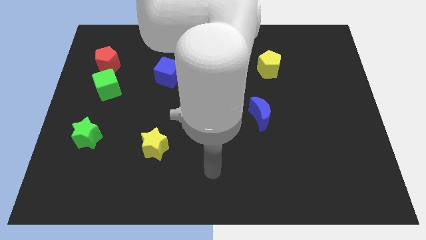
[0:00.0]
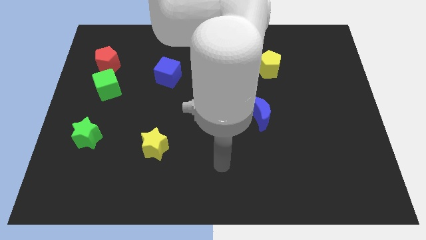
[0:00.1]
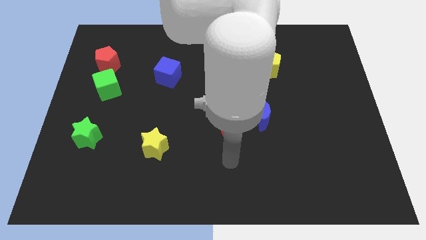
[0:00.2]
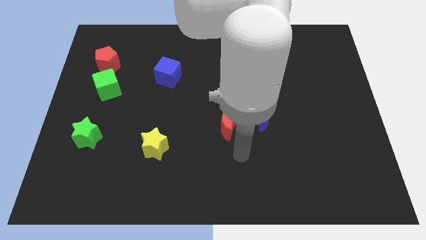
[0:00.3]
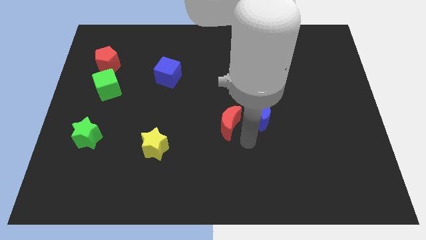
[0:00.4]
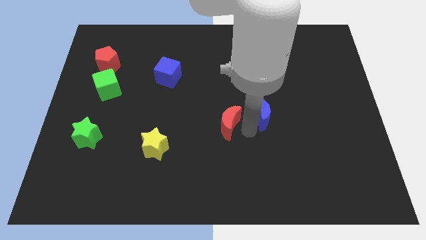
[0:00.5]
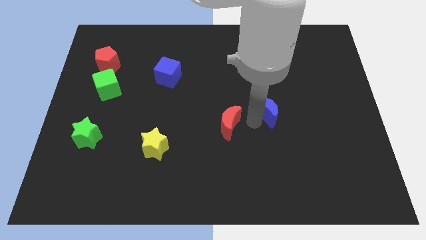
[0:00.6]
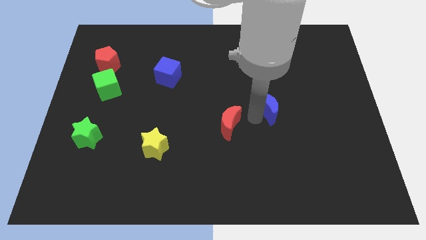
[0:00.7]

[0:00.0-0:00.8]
pull the red moon apart from the blue moon

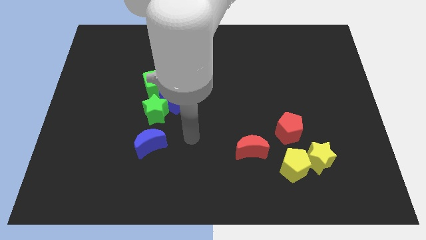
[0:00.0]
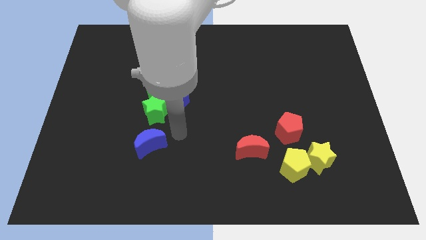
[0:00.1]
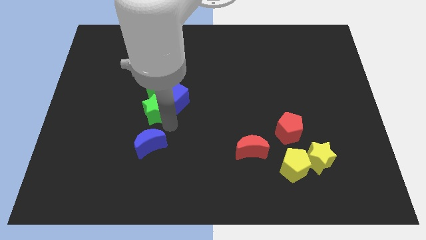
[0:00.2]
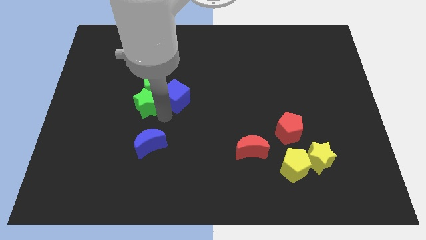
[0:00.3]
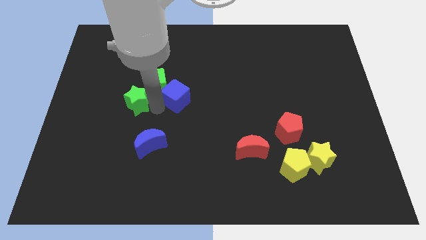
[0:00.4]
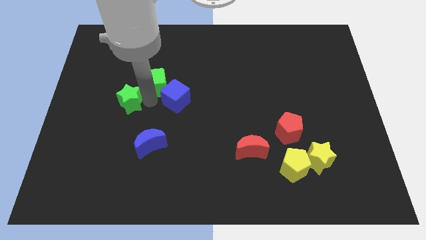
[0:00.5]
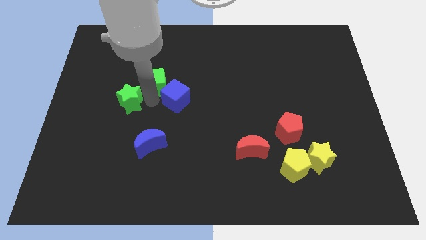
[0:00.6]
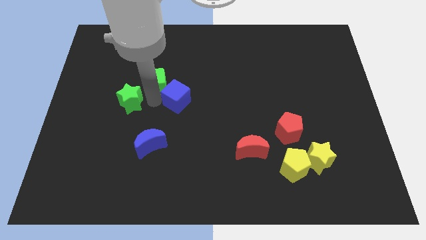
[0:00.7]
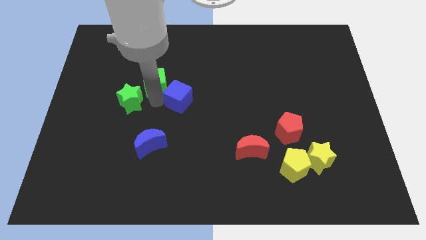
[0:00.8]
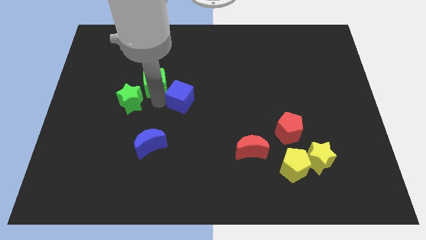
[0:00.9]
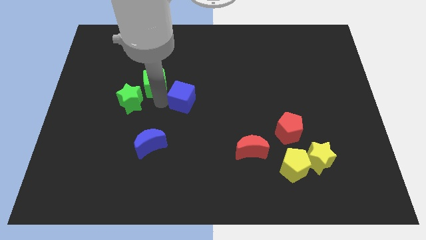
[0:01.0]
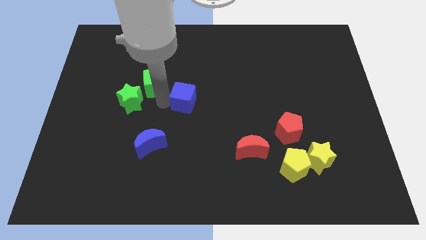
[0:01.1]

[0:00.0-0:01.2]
pull the blue cube apart from the green star and green cube

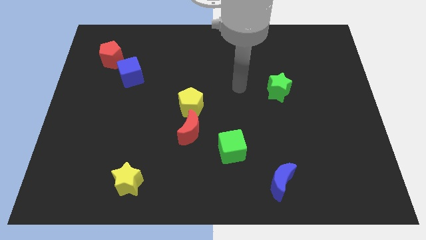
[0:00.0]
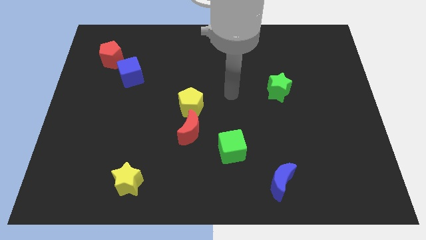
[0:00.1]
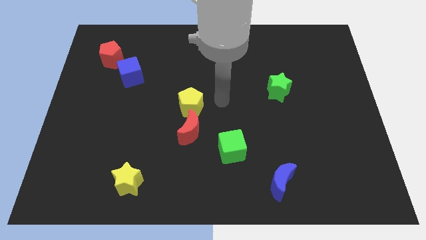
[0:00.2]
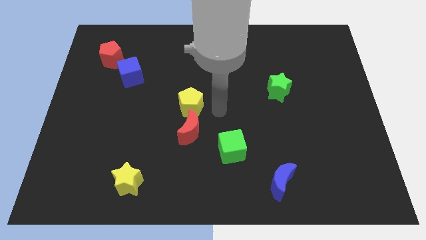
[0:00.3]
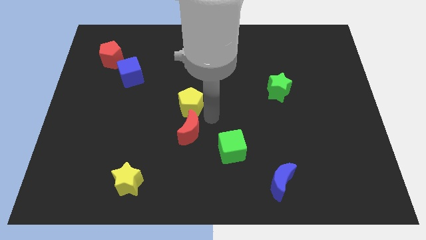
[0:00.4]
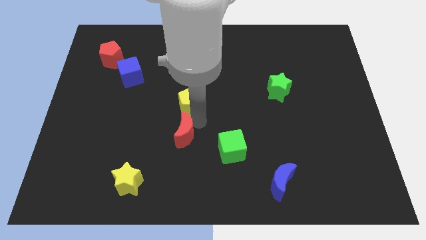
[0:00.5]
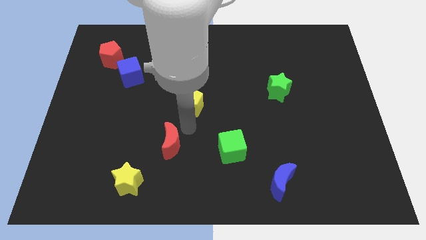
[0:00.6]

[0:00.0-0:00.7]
separate the yellow pentagon from the red moon

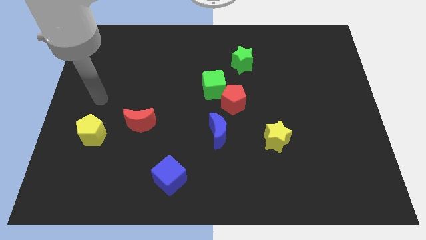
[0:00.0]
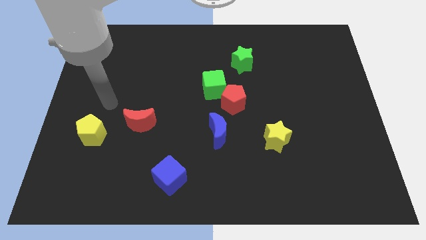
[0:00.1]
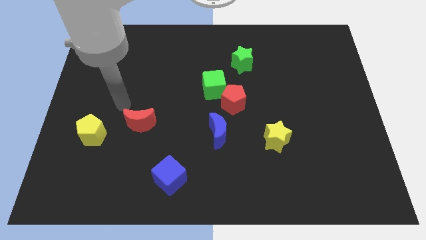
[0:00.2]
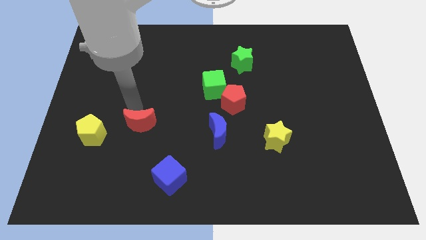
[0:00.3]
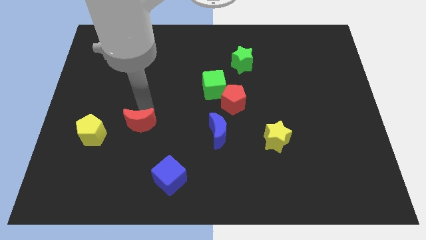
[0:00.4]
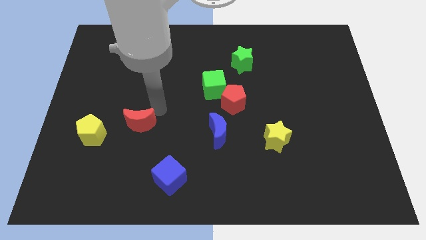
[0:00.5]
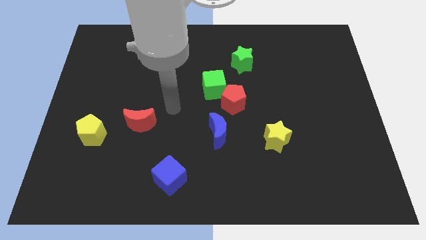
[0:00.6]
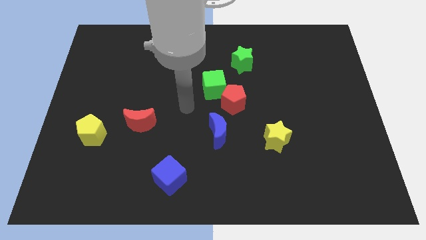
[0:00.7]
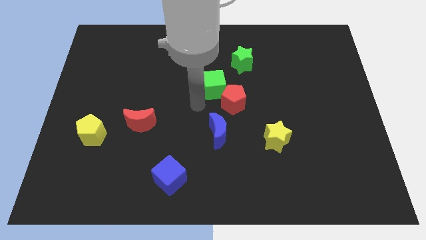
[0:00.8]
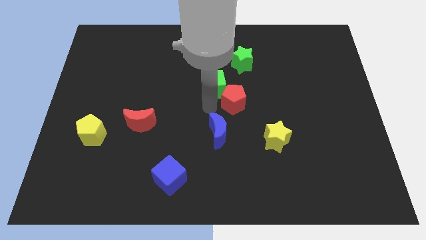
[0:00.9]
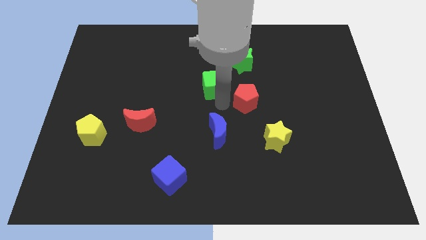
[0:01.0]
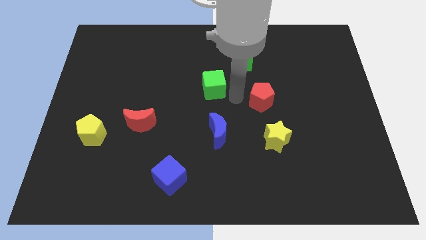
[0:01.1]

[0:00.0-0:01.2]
separate the green cube from the red pentagon

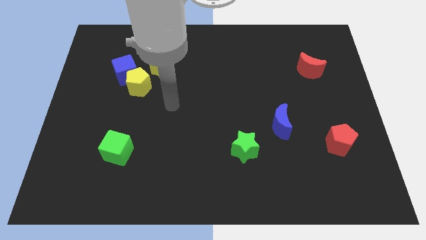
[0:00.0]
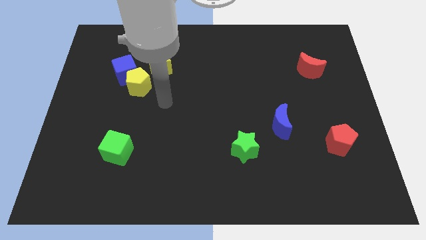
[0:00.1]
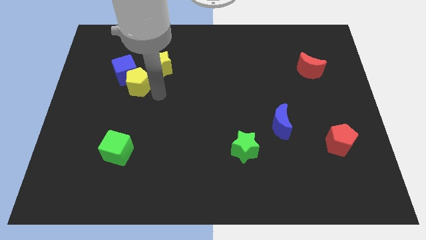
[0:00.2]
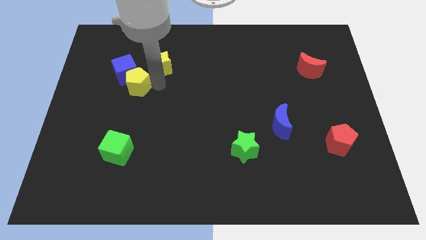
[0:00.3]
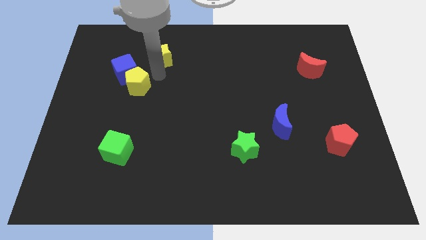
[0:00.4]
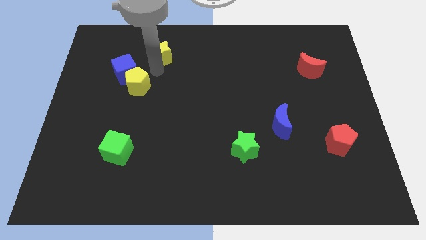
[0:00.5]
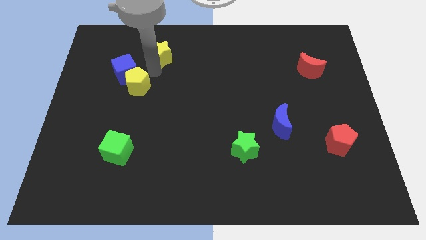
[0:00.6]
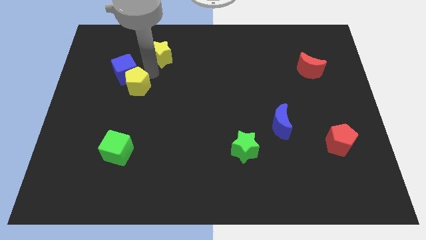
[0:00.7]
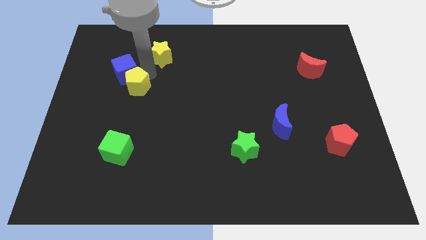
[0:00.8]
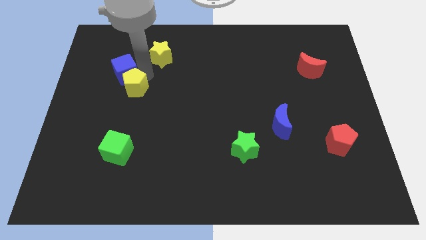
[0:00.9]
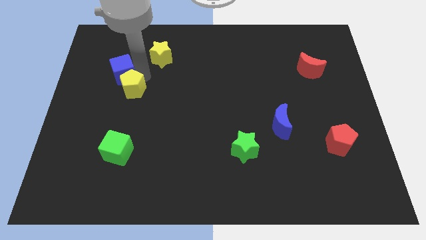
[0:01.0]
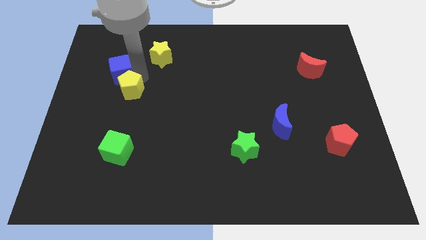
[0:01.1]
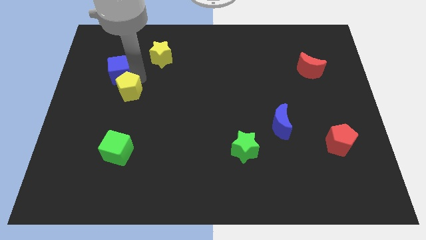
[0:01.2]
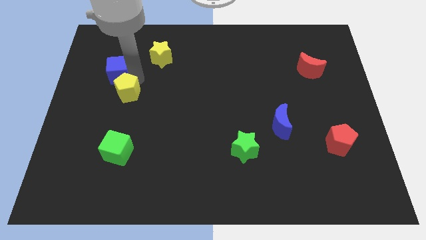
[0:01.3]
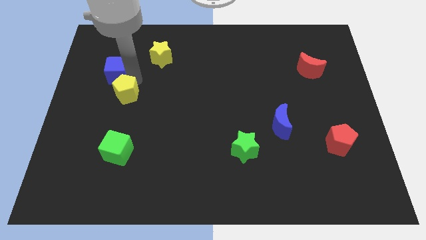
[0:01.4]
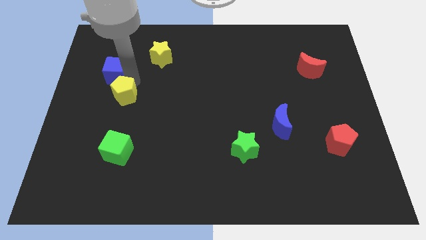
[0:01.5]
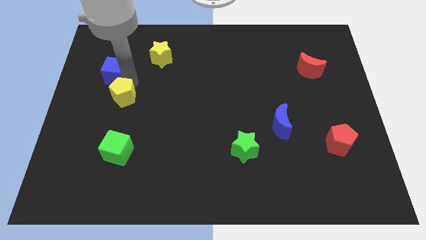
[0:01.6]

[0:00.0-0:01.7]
separate the yellow pentagon from the blue cube and yellow star

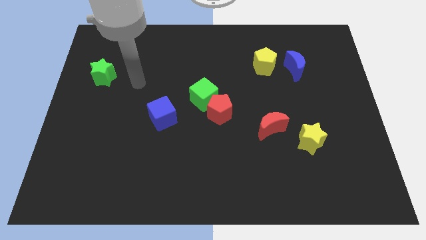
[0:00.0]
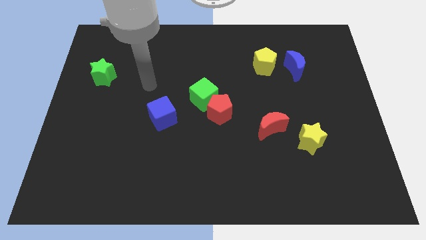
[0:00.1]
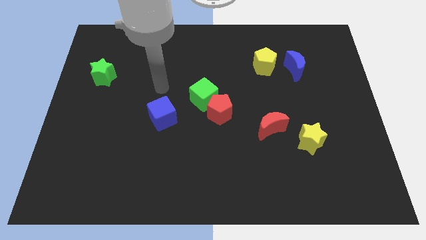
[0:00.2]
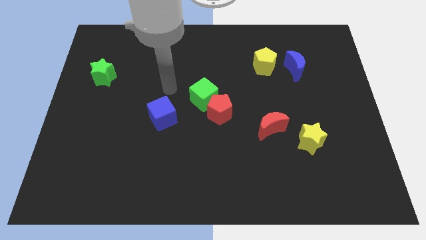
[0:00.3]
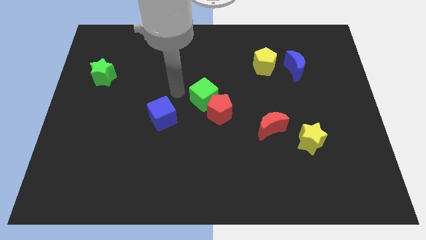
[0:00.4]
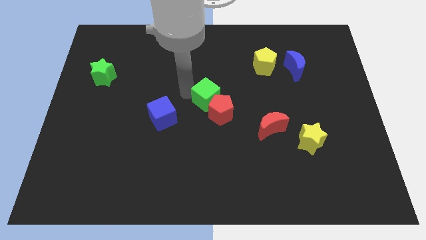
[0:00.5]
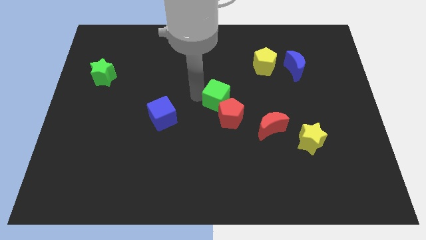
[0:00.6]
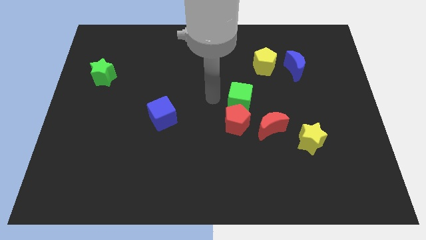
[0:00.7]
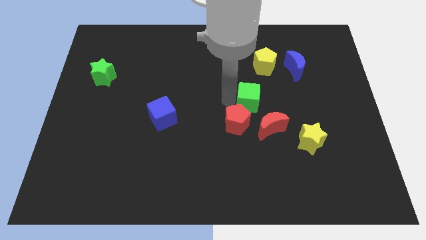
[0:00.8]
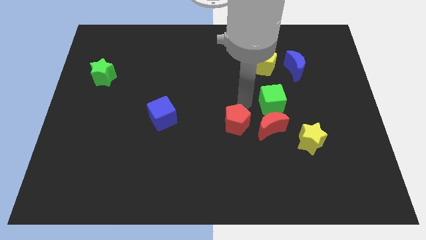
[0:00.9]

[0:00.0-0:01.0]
pull the red pentagon apart from the green cube

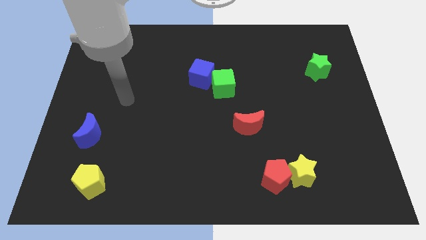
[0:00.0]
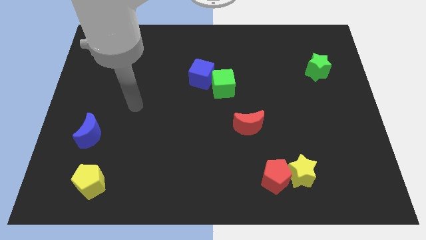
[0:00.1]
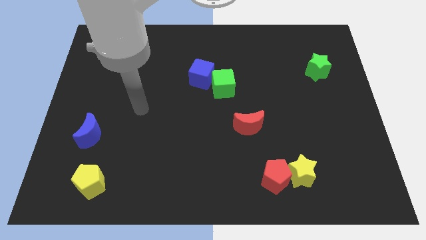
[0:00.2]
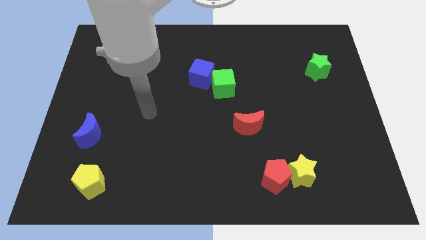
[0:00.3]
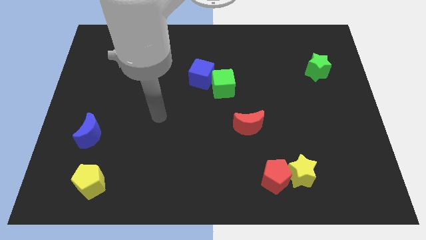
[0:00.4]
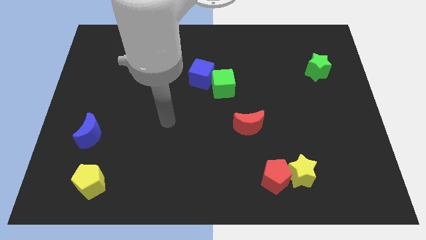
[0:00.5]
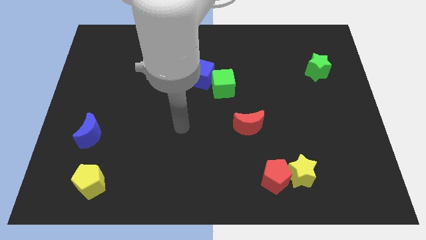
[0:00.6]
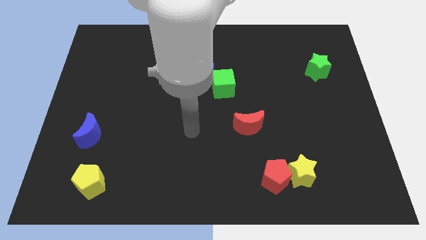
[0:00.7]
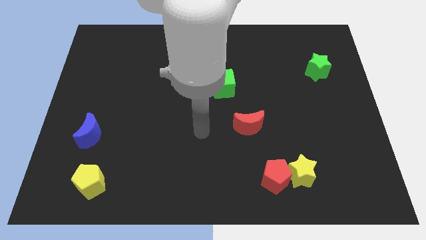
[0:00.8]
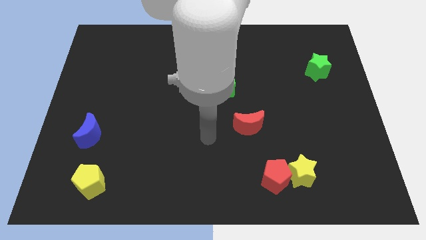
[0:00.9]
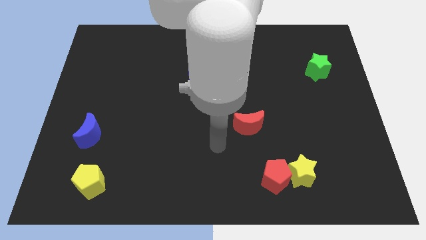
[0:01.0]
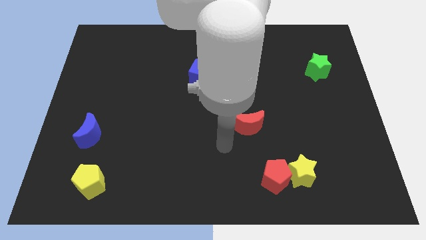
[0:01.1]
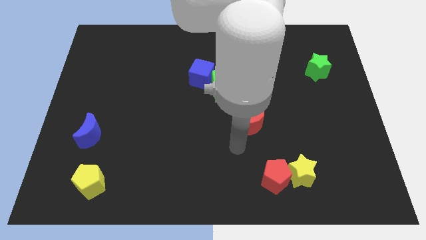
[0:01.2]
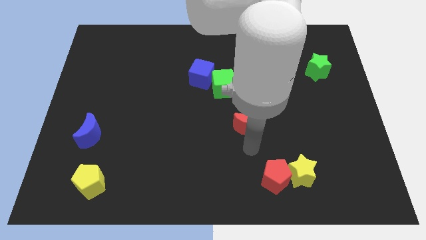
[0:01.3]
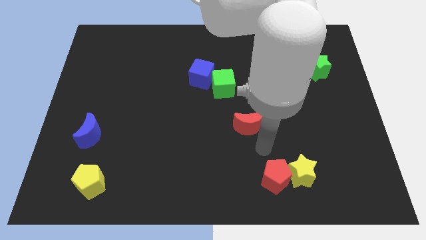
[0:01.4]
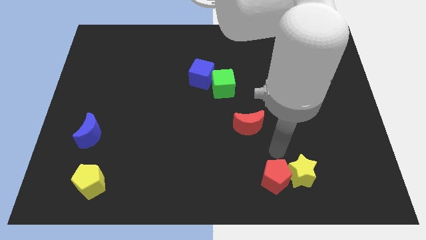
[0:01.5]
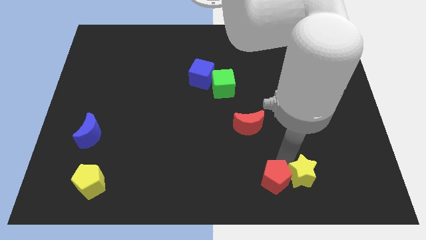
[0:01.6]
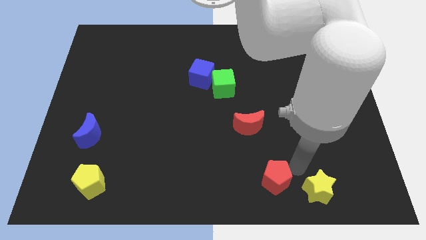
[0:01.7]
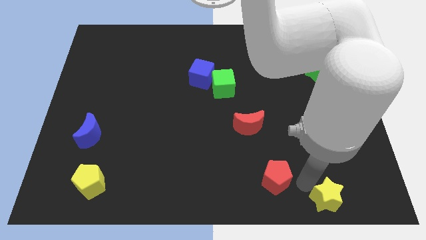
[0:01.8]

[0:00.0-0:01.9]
separate the red pentagon from the yellow star

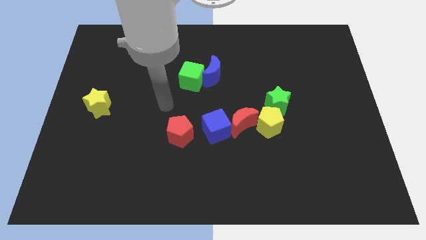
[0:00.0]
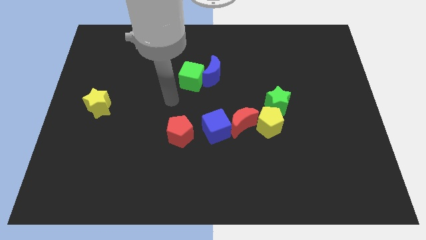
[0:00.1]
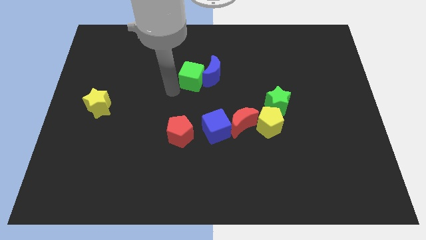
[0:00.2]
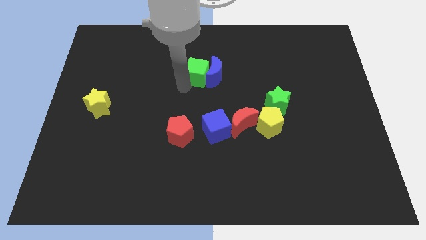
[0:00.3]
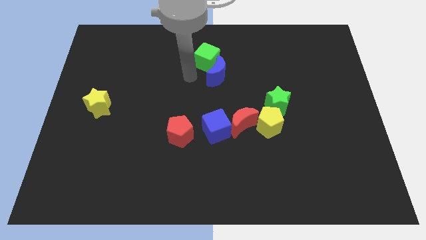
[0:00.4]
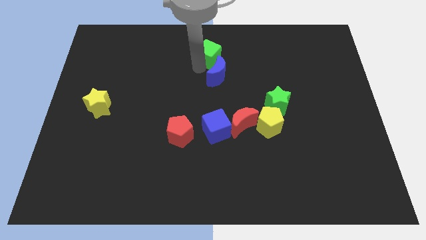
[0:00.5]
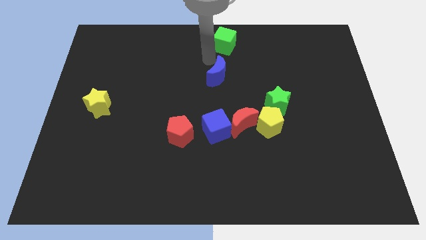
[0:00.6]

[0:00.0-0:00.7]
move the blue moon away from the green cube
